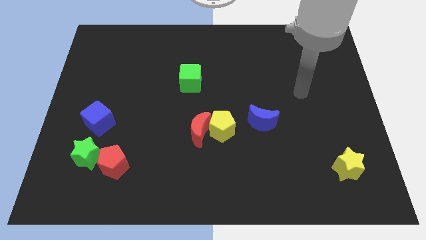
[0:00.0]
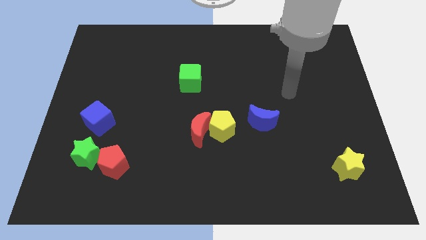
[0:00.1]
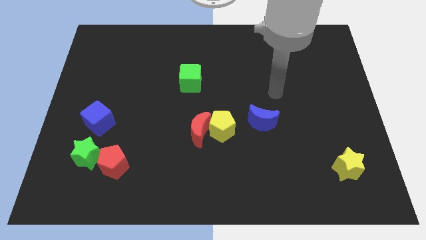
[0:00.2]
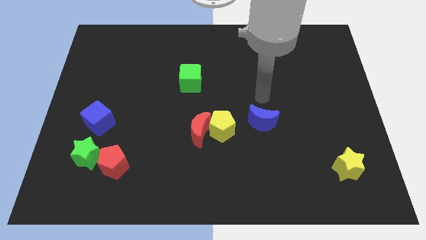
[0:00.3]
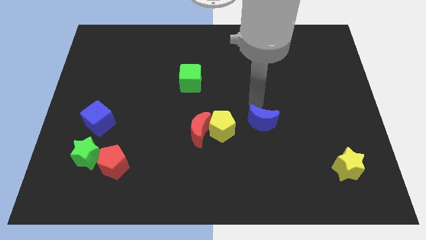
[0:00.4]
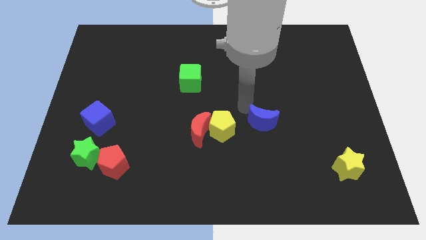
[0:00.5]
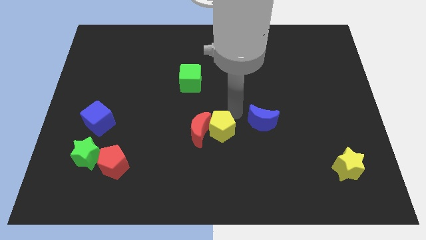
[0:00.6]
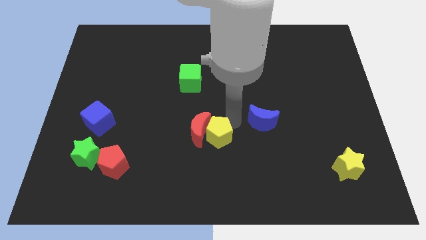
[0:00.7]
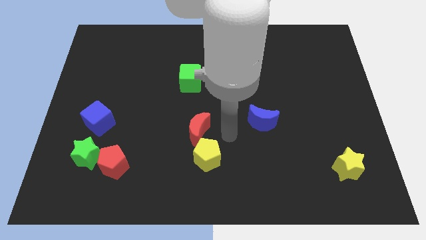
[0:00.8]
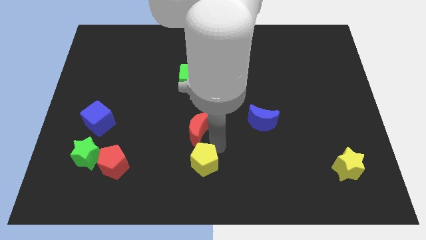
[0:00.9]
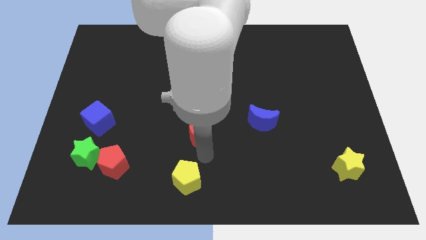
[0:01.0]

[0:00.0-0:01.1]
move the red moon away from the yellow pentagon

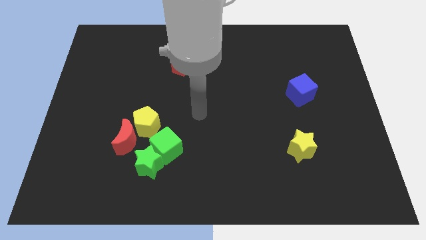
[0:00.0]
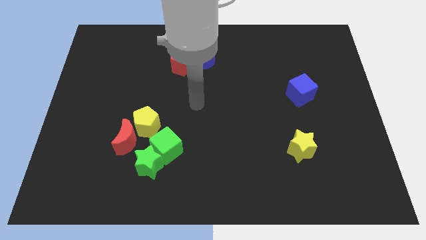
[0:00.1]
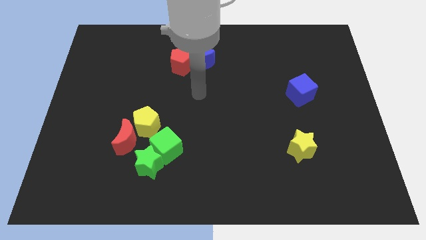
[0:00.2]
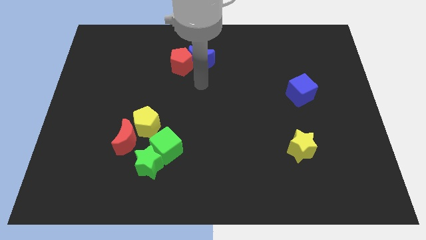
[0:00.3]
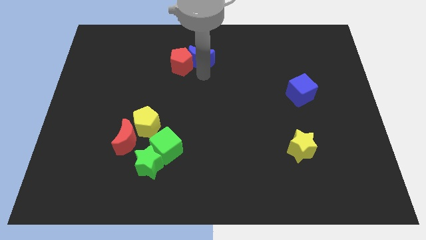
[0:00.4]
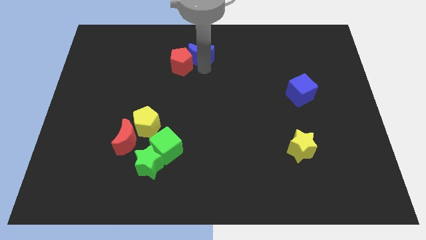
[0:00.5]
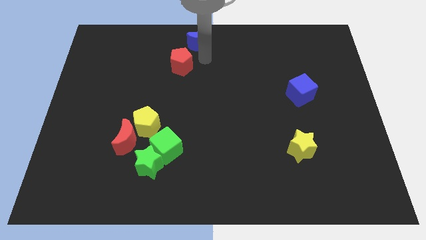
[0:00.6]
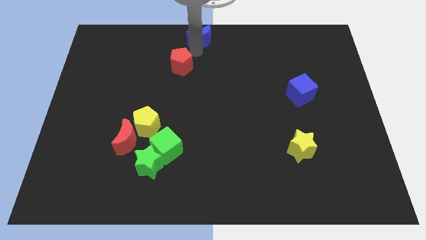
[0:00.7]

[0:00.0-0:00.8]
move the red pentagon away from the blue moon

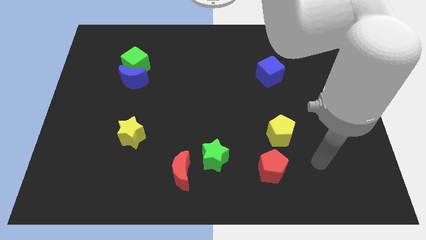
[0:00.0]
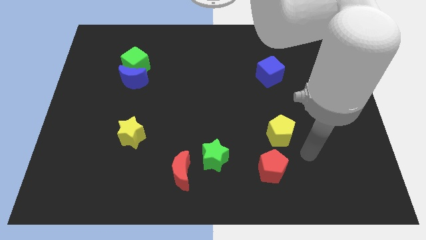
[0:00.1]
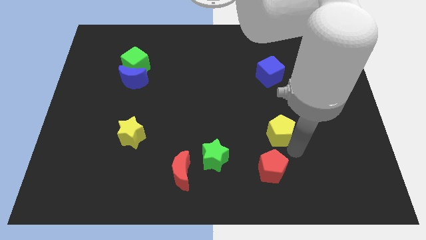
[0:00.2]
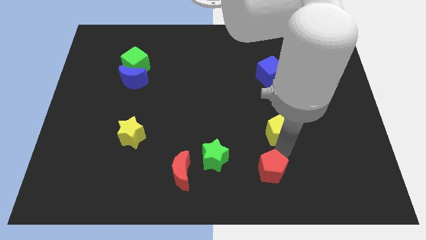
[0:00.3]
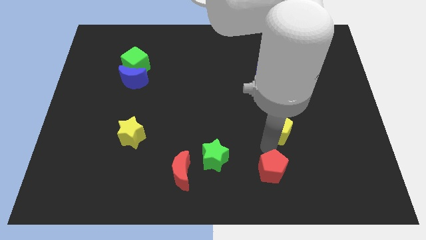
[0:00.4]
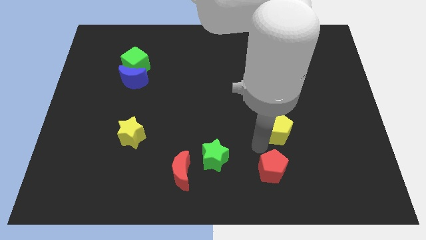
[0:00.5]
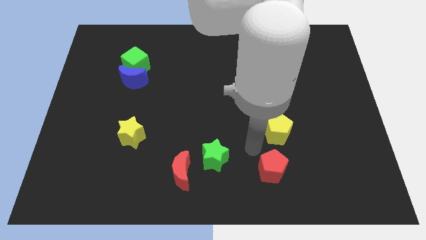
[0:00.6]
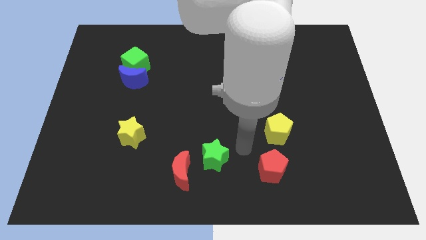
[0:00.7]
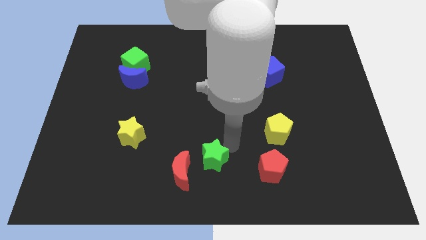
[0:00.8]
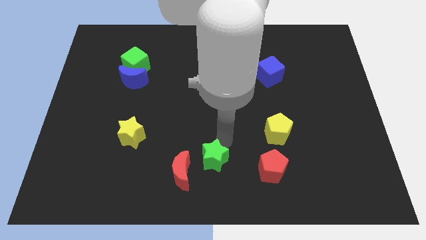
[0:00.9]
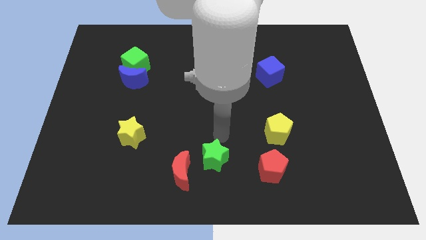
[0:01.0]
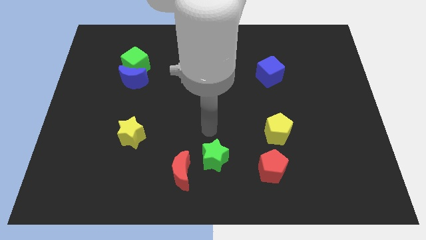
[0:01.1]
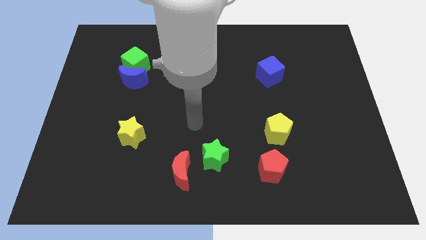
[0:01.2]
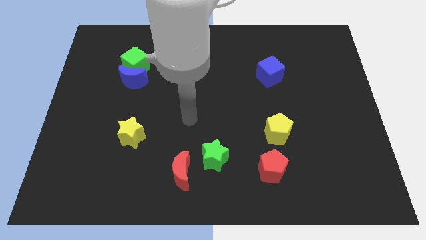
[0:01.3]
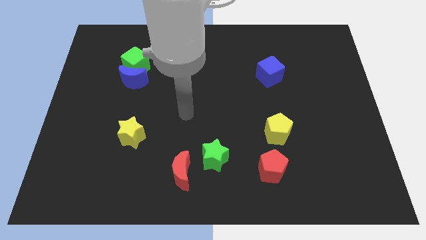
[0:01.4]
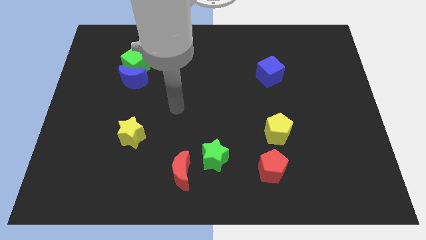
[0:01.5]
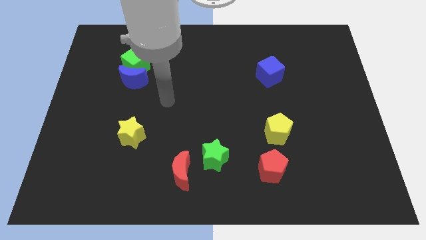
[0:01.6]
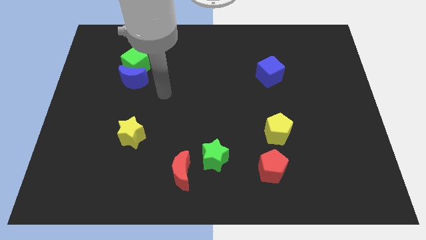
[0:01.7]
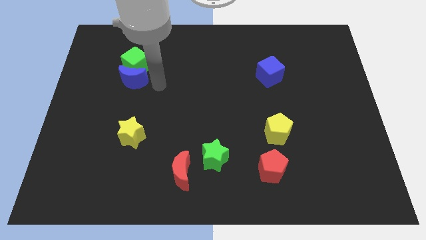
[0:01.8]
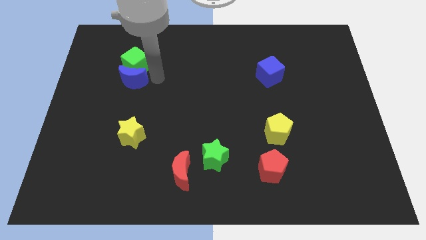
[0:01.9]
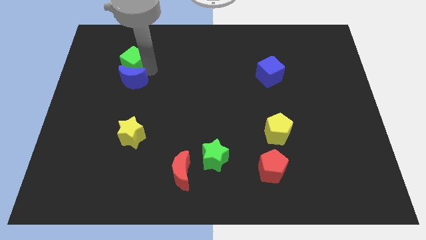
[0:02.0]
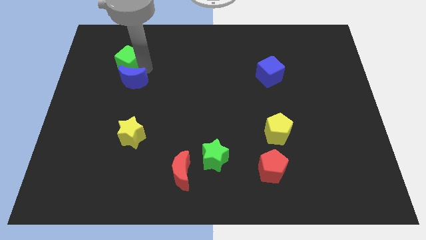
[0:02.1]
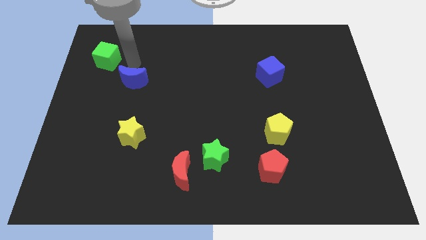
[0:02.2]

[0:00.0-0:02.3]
move the blue moon away from the green cube

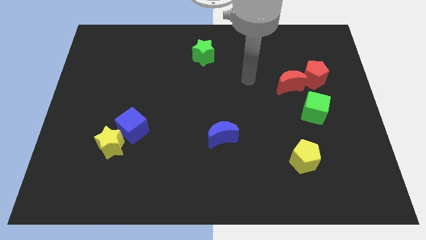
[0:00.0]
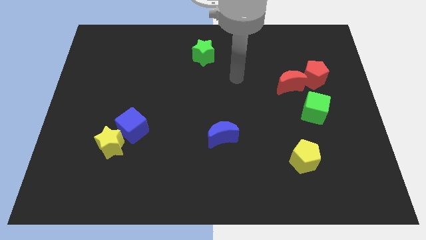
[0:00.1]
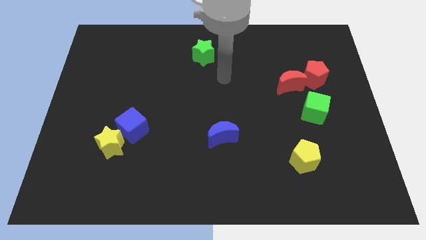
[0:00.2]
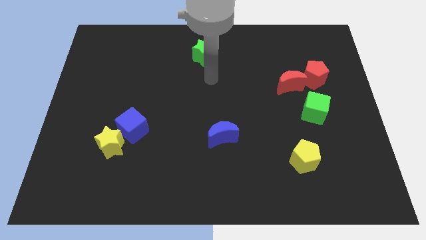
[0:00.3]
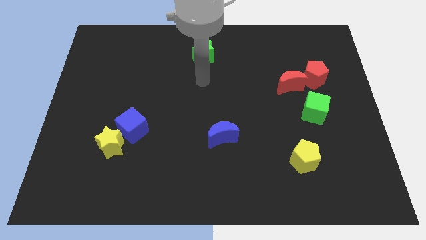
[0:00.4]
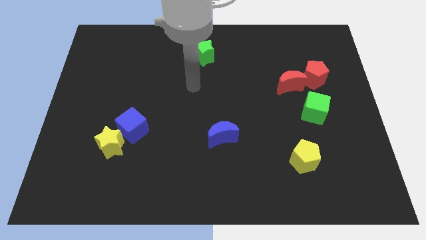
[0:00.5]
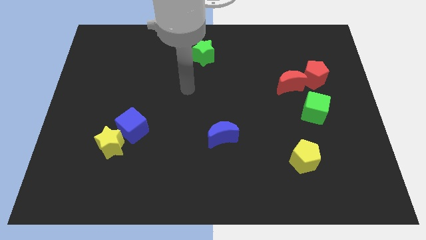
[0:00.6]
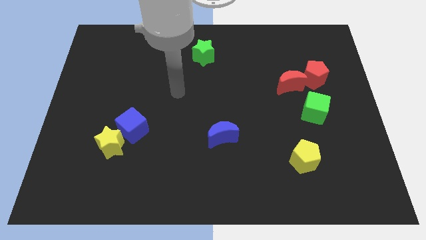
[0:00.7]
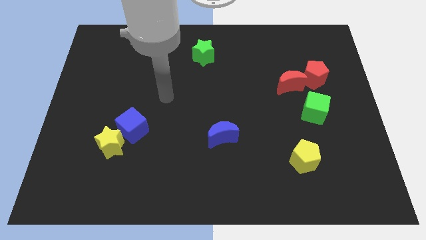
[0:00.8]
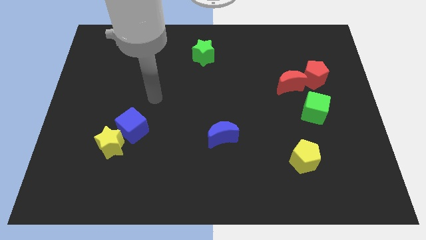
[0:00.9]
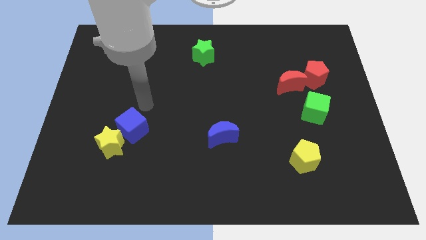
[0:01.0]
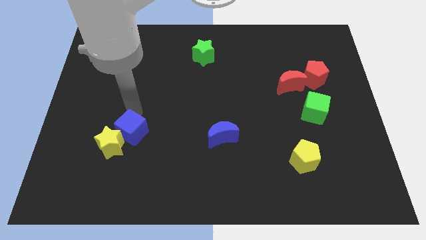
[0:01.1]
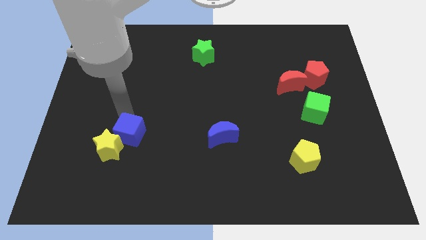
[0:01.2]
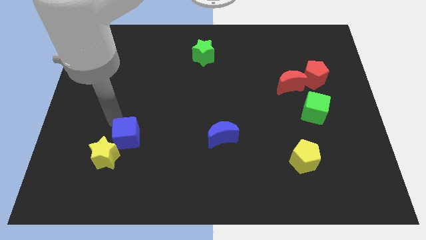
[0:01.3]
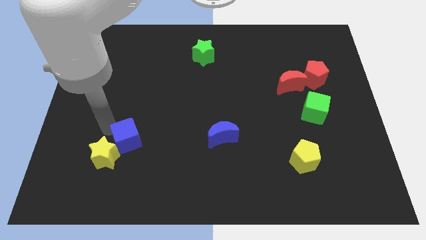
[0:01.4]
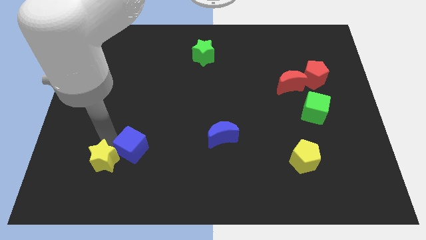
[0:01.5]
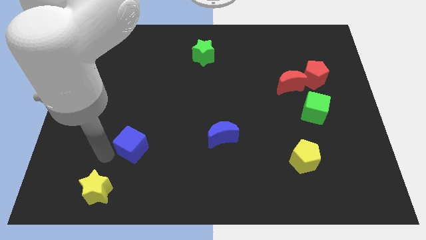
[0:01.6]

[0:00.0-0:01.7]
move the blue cube away from the yellow star

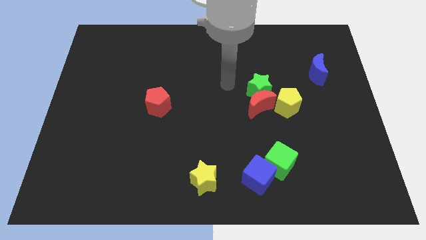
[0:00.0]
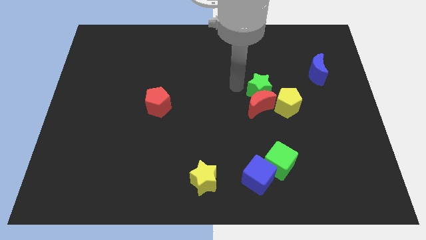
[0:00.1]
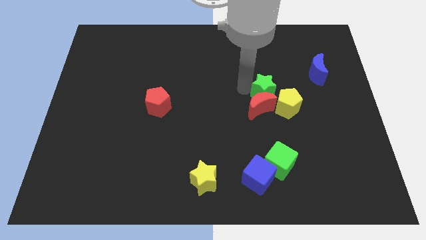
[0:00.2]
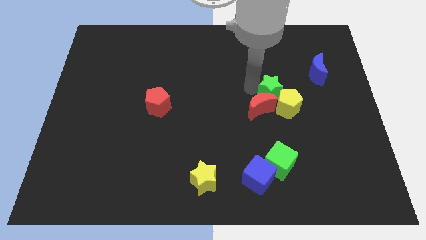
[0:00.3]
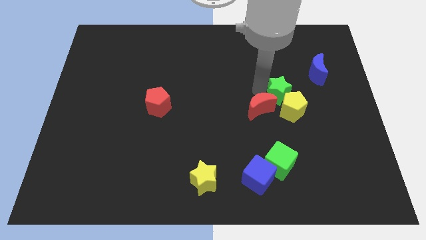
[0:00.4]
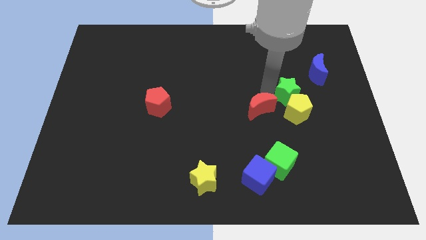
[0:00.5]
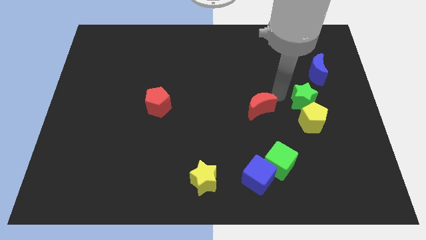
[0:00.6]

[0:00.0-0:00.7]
move the red moon away from the green star and yellow pentagon

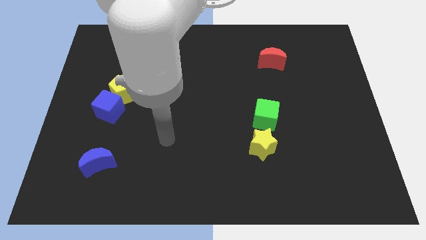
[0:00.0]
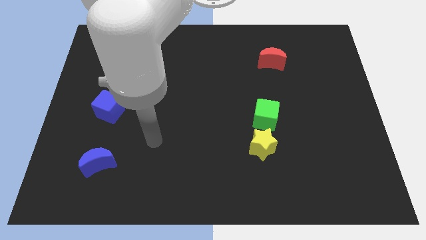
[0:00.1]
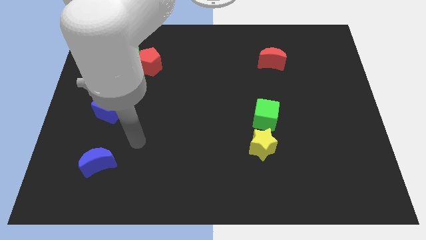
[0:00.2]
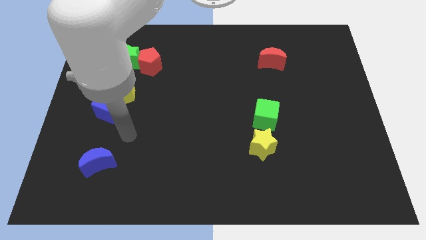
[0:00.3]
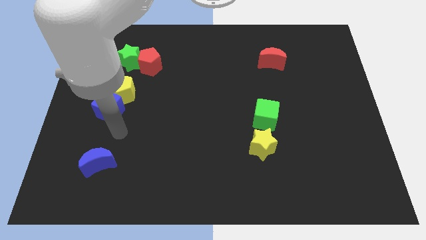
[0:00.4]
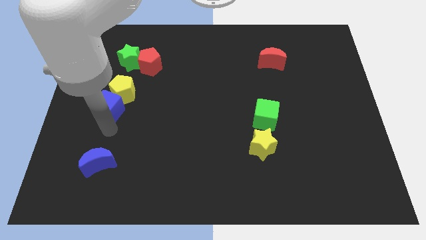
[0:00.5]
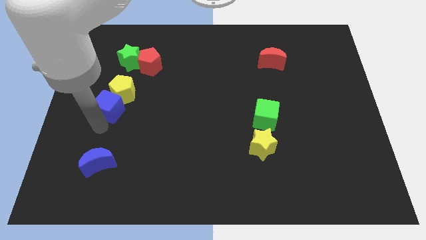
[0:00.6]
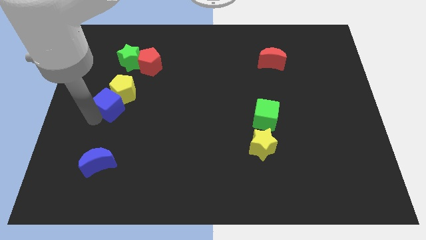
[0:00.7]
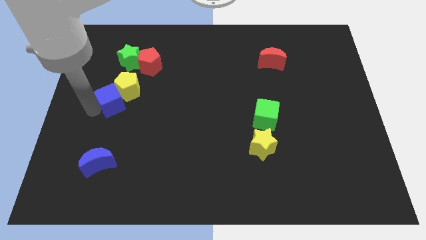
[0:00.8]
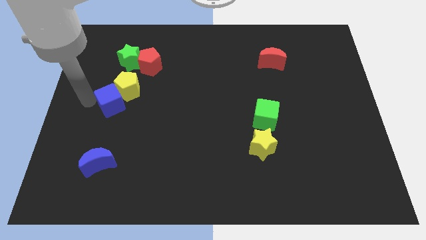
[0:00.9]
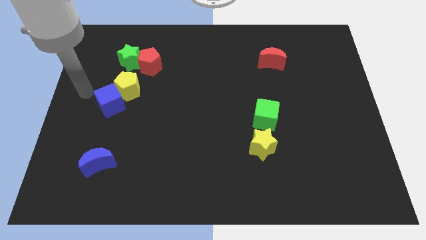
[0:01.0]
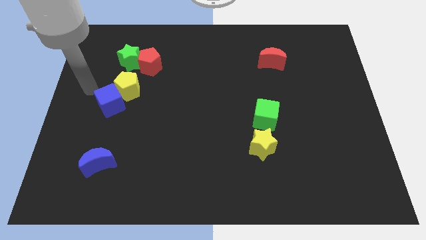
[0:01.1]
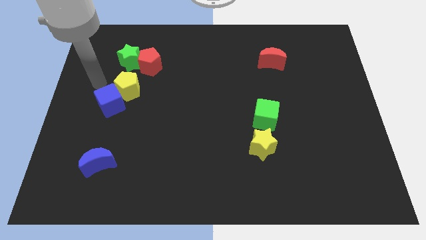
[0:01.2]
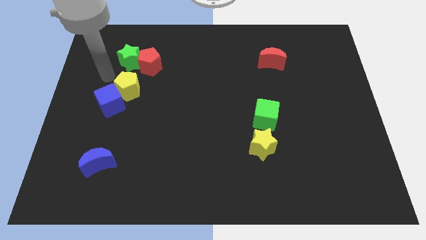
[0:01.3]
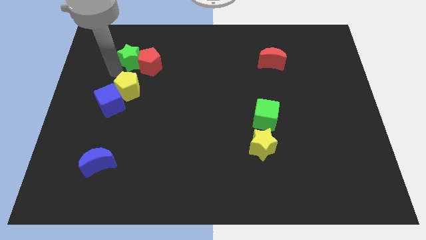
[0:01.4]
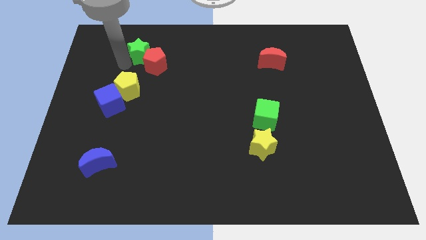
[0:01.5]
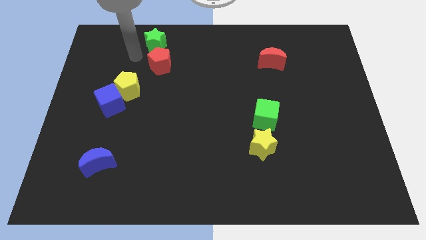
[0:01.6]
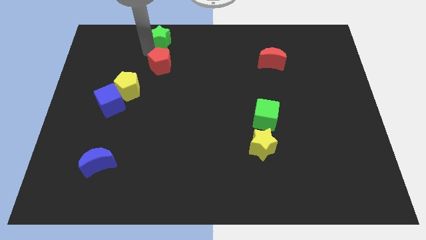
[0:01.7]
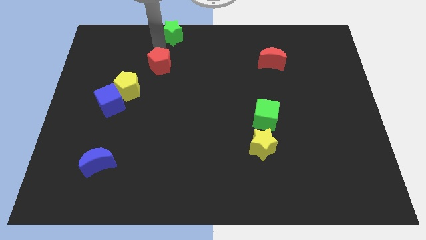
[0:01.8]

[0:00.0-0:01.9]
pull the red pentagon apart from the green star

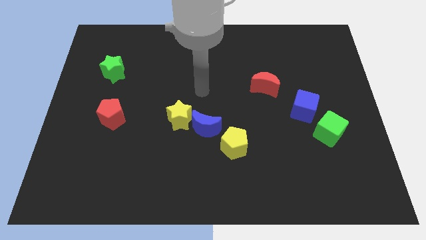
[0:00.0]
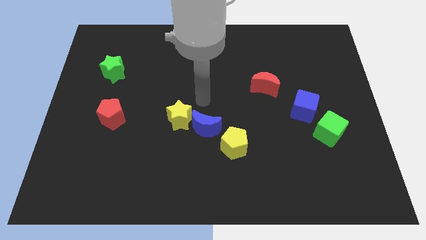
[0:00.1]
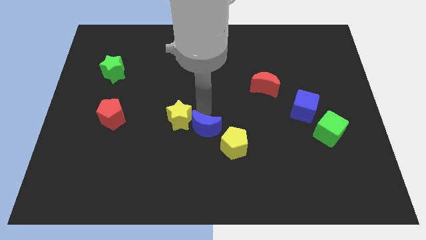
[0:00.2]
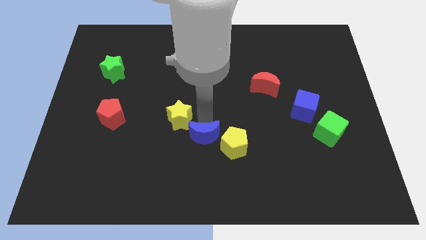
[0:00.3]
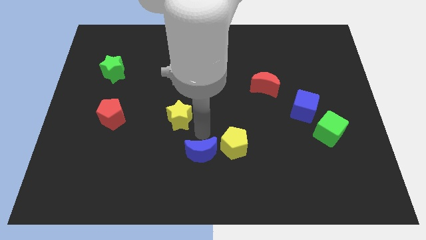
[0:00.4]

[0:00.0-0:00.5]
move the yellow star away from the blue moon

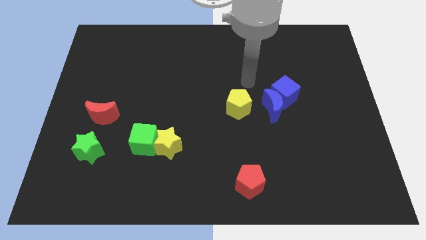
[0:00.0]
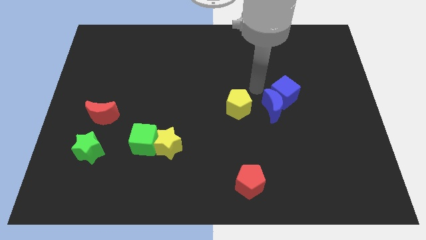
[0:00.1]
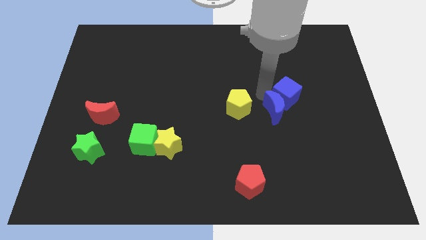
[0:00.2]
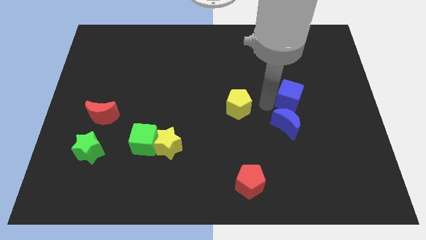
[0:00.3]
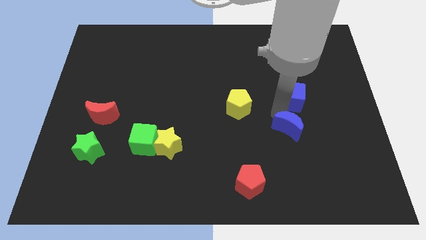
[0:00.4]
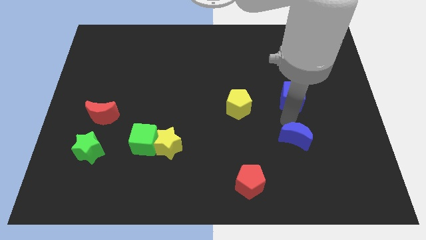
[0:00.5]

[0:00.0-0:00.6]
move the blue cube away from the blue moon
